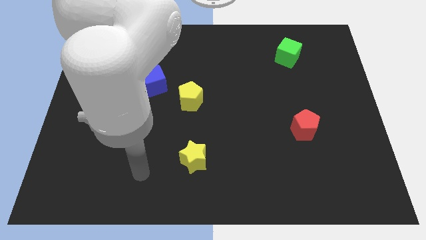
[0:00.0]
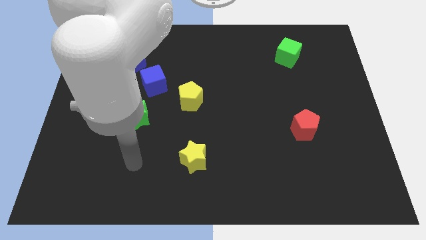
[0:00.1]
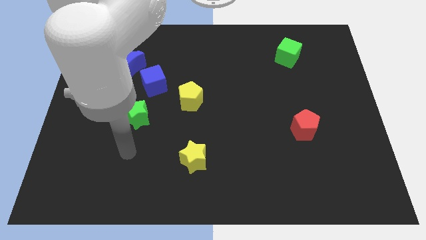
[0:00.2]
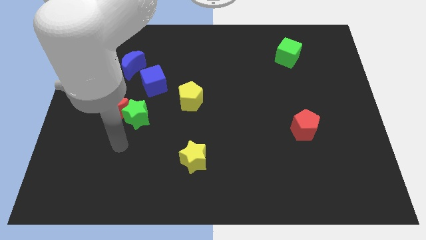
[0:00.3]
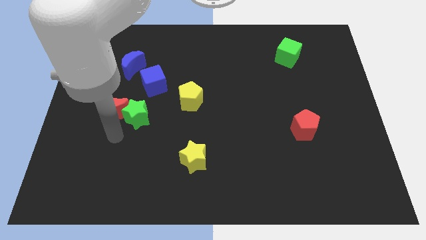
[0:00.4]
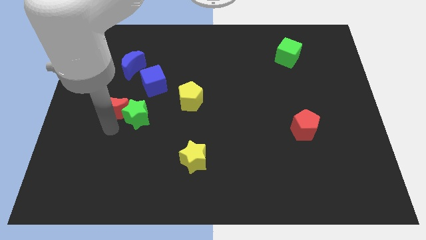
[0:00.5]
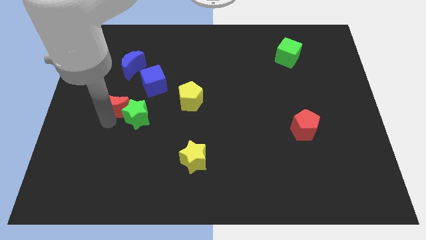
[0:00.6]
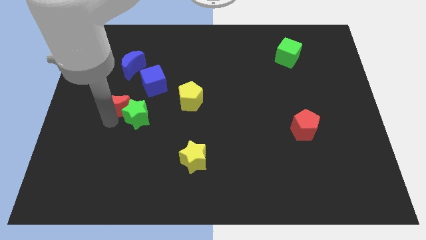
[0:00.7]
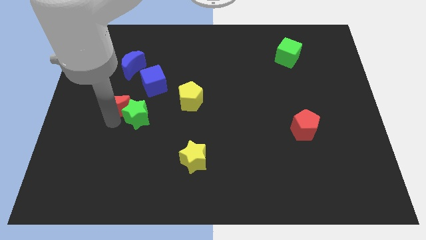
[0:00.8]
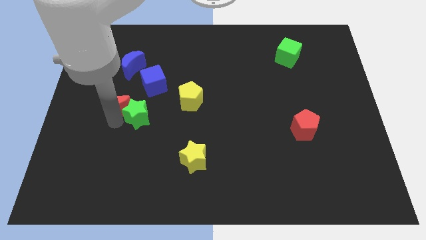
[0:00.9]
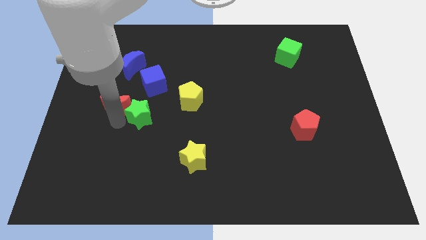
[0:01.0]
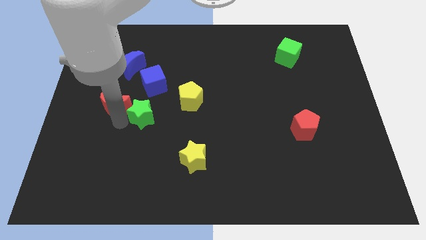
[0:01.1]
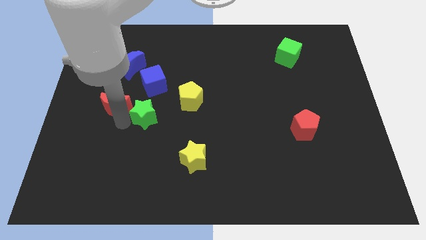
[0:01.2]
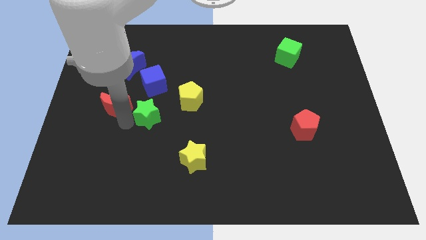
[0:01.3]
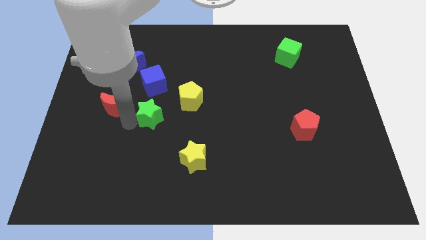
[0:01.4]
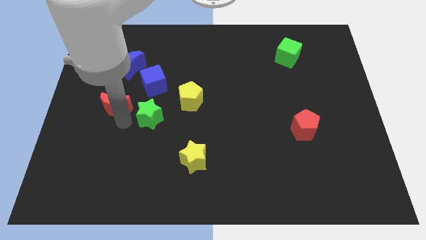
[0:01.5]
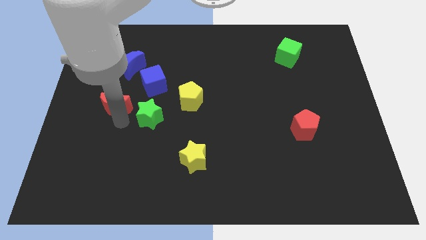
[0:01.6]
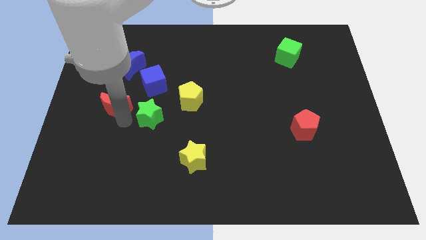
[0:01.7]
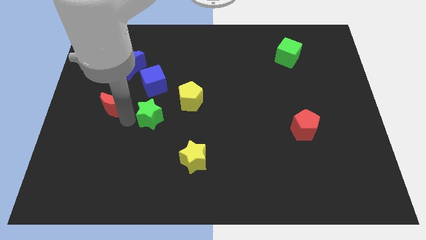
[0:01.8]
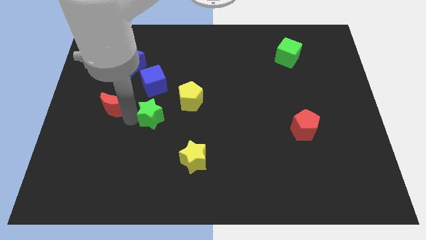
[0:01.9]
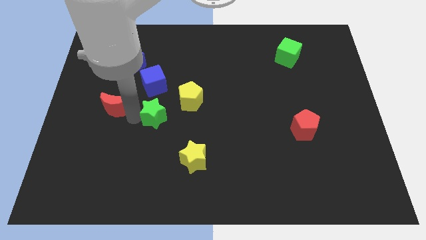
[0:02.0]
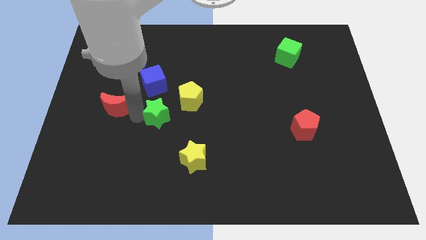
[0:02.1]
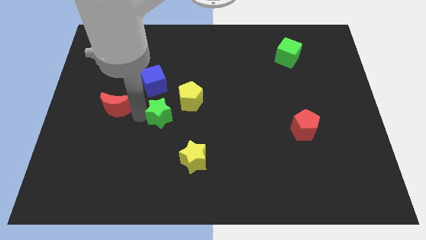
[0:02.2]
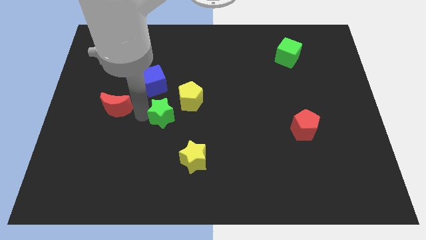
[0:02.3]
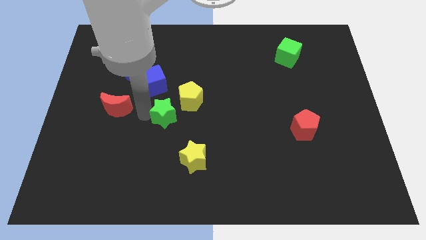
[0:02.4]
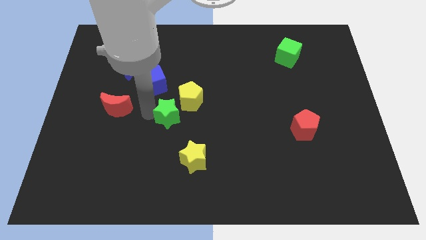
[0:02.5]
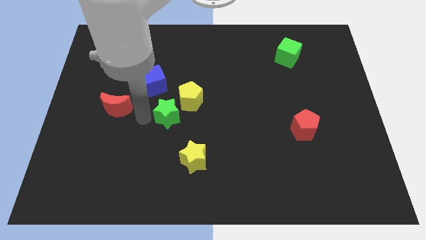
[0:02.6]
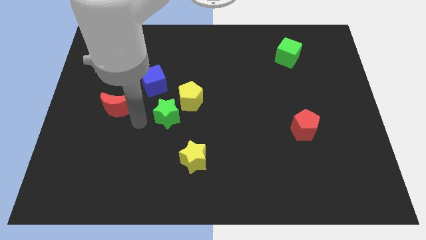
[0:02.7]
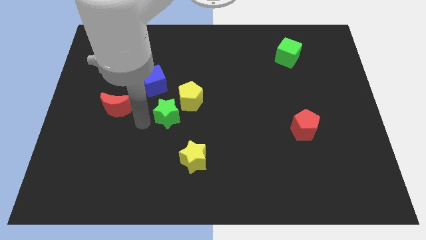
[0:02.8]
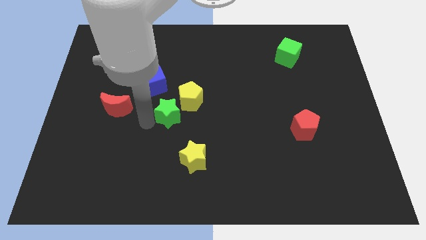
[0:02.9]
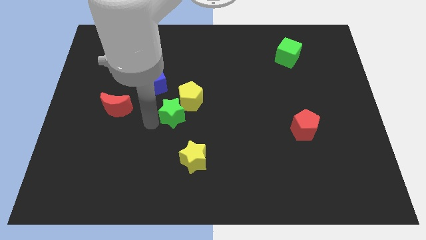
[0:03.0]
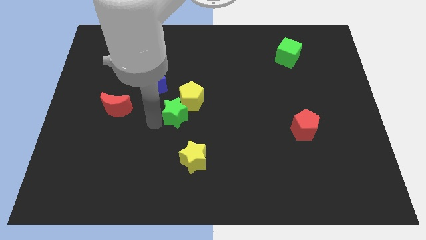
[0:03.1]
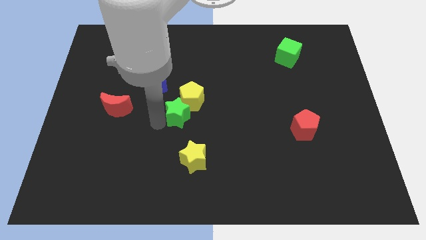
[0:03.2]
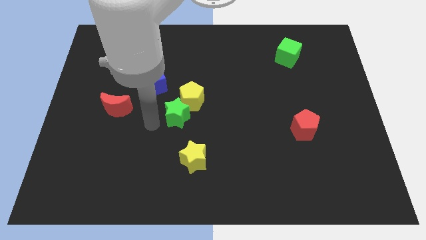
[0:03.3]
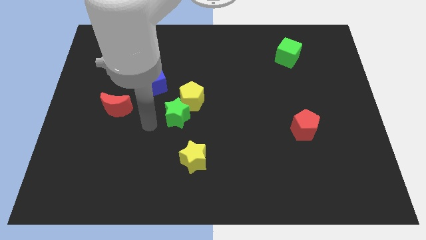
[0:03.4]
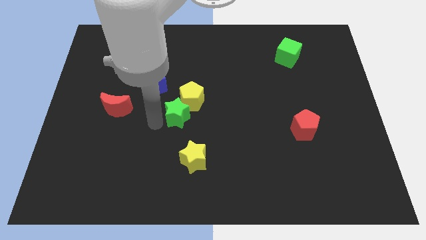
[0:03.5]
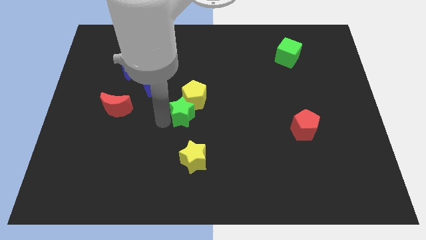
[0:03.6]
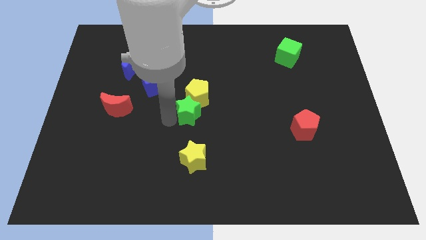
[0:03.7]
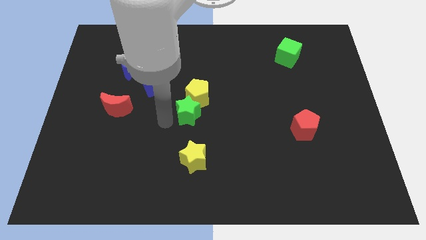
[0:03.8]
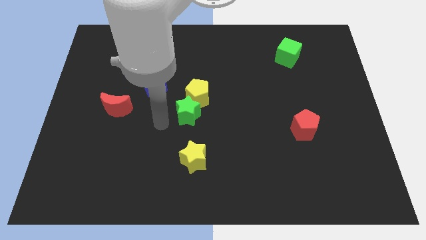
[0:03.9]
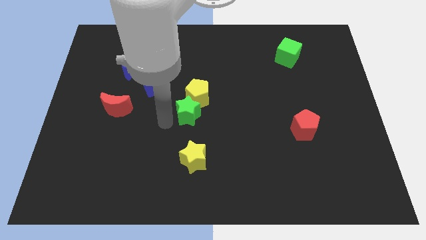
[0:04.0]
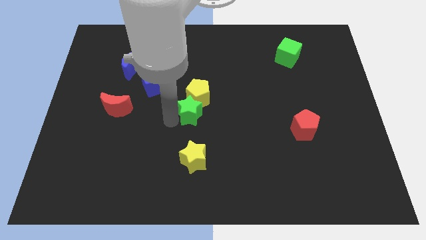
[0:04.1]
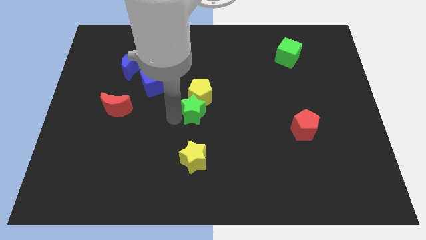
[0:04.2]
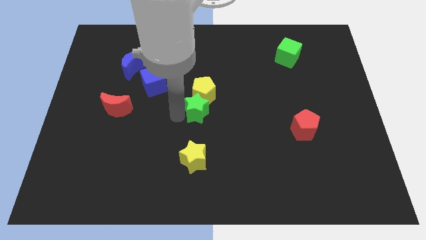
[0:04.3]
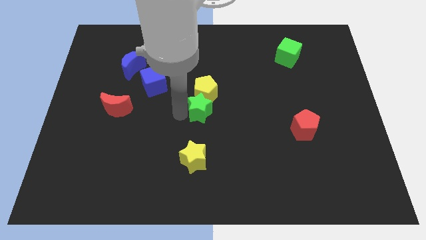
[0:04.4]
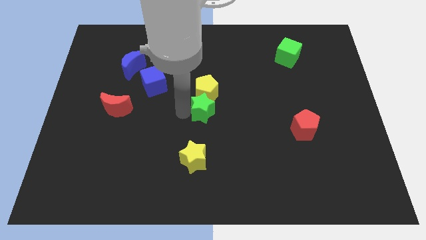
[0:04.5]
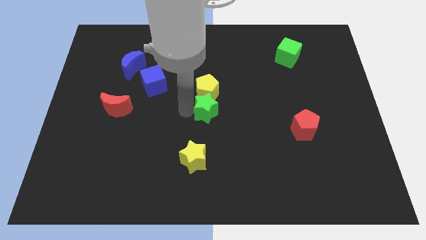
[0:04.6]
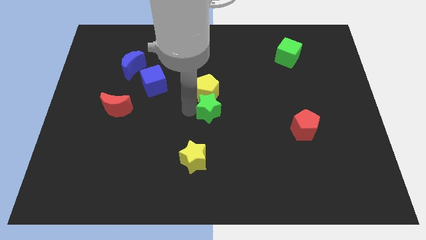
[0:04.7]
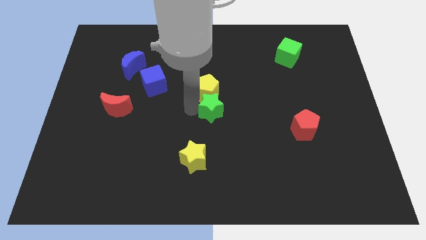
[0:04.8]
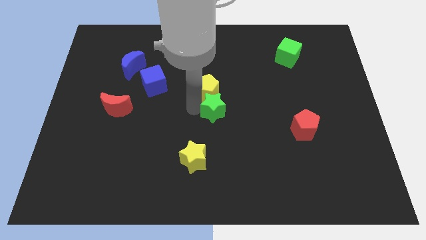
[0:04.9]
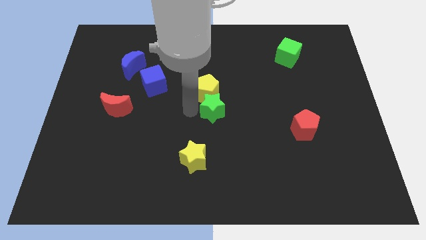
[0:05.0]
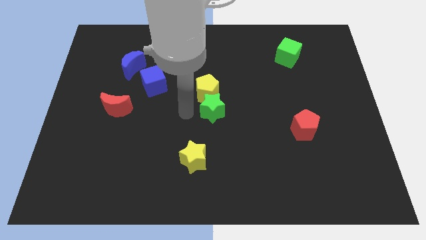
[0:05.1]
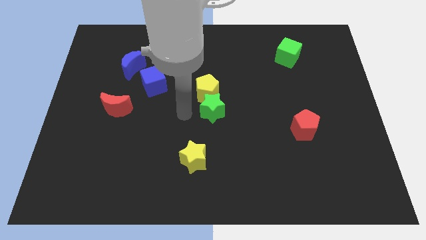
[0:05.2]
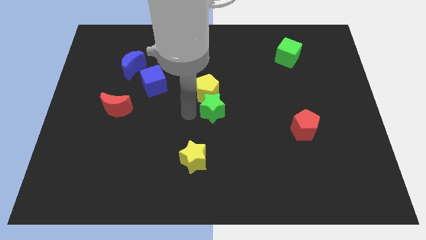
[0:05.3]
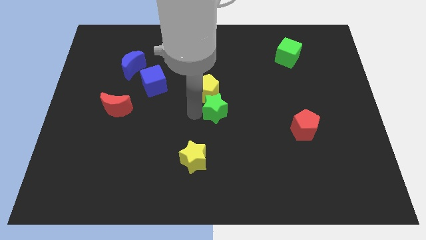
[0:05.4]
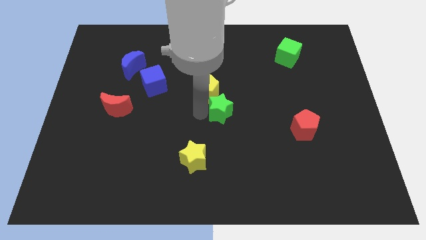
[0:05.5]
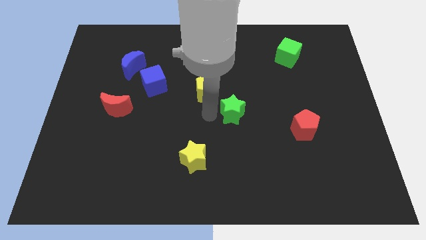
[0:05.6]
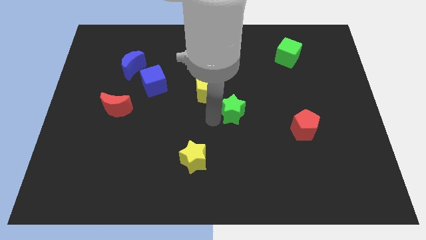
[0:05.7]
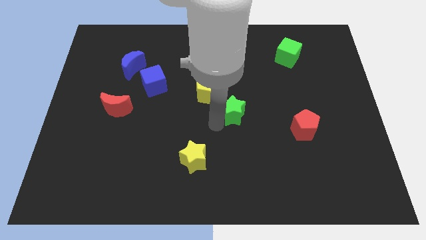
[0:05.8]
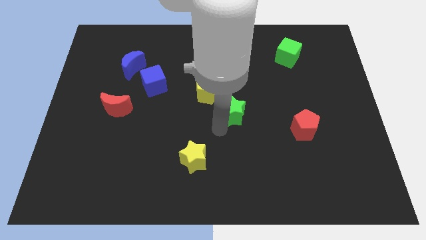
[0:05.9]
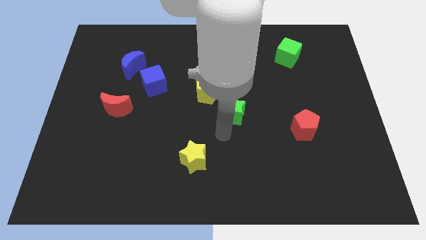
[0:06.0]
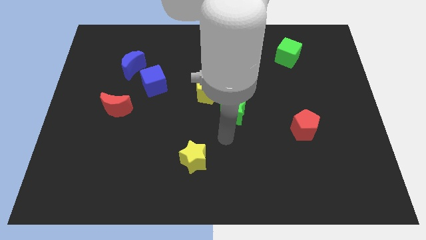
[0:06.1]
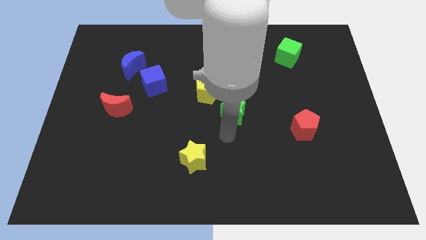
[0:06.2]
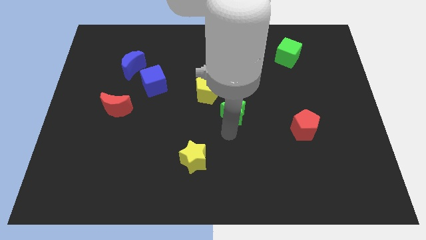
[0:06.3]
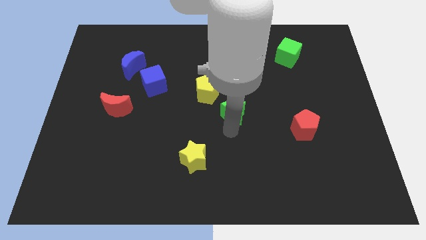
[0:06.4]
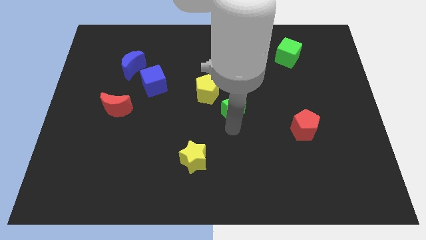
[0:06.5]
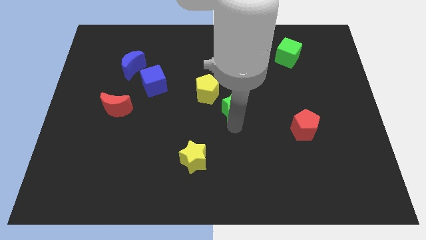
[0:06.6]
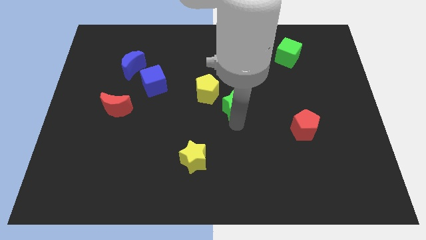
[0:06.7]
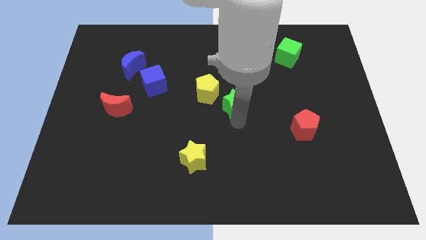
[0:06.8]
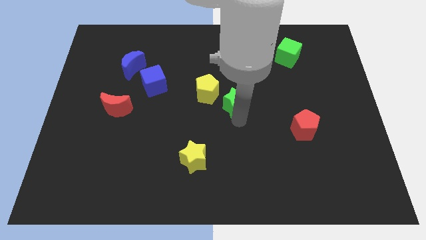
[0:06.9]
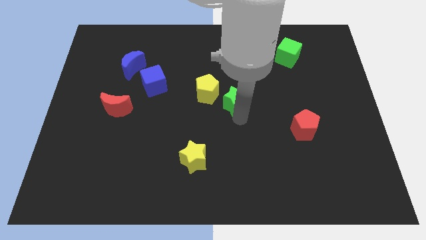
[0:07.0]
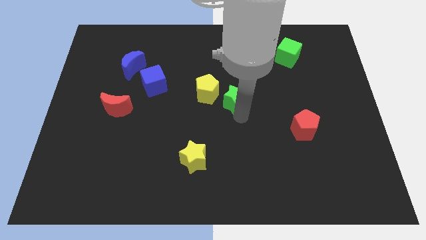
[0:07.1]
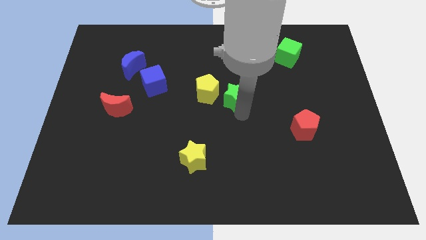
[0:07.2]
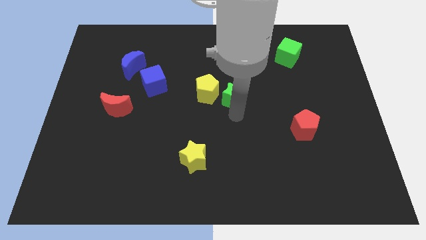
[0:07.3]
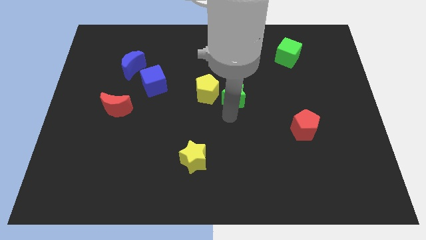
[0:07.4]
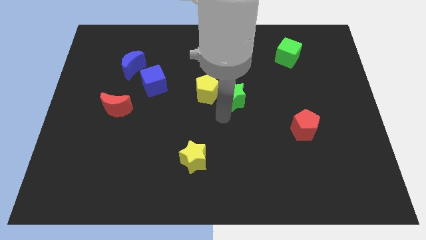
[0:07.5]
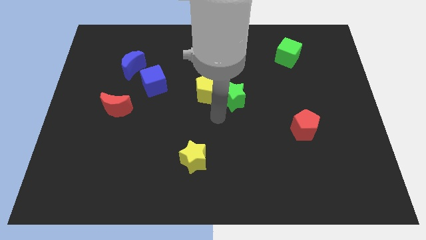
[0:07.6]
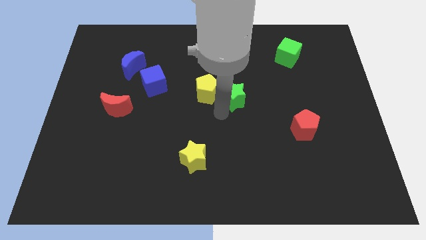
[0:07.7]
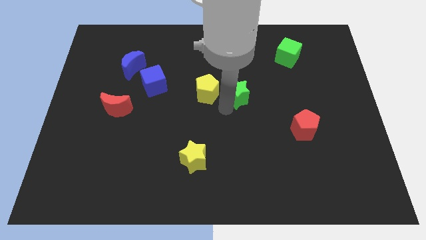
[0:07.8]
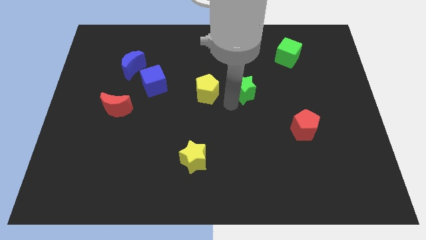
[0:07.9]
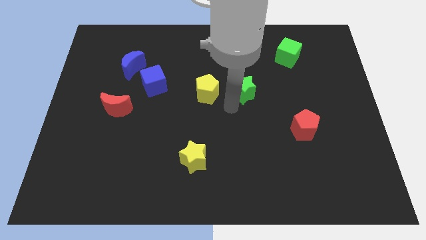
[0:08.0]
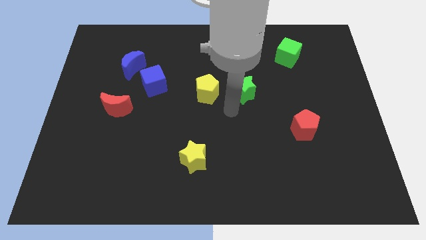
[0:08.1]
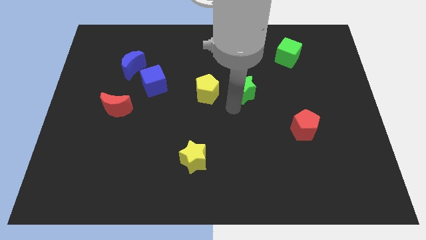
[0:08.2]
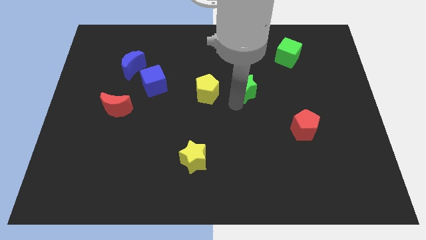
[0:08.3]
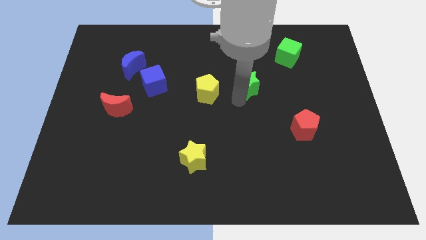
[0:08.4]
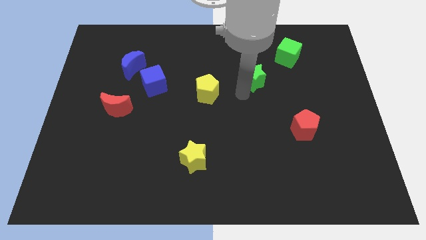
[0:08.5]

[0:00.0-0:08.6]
move the green star to the bottom left of the green cube
